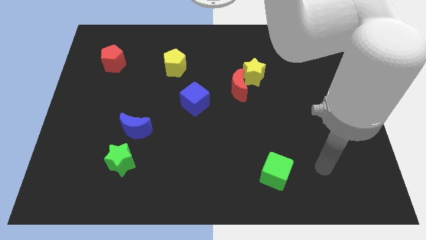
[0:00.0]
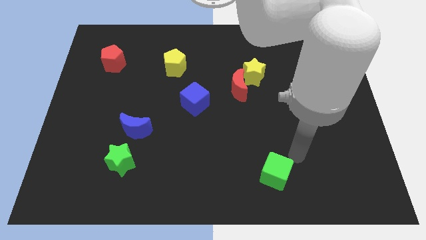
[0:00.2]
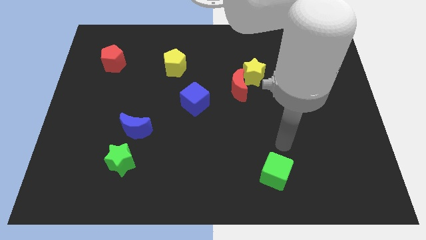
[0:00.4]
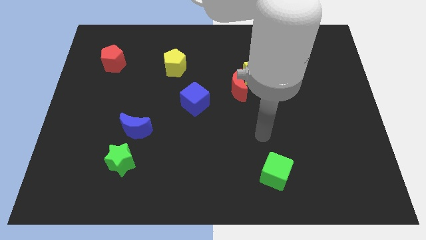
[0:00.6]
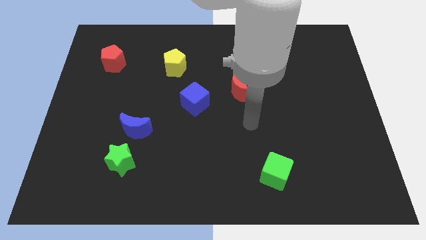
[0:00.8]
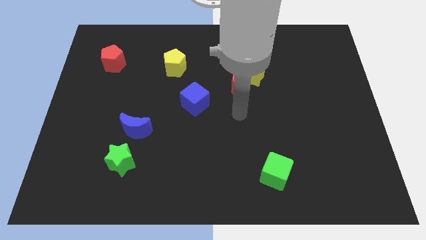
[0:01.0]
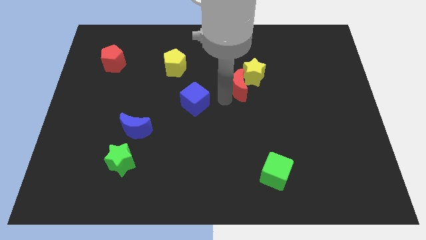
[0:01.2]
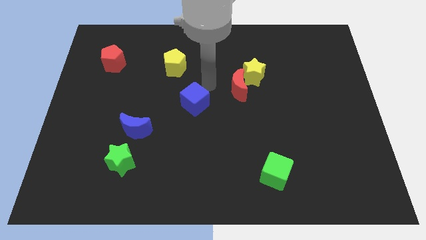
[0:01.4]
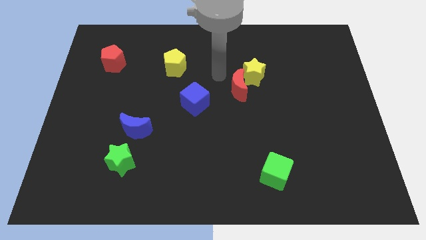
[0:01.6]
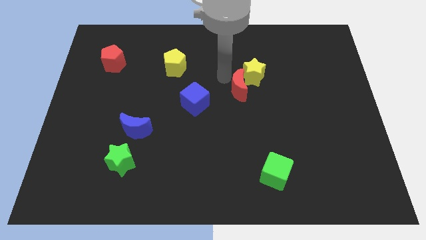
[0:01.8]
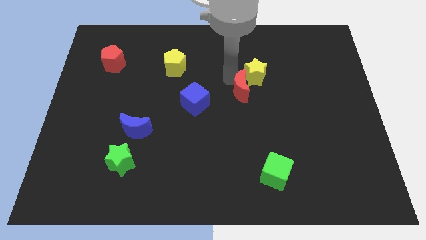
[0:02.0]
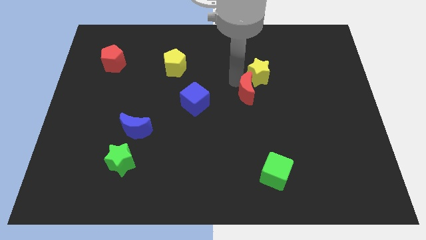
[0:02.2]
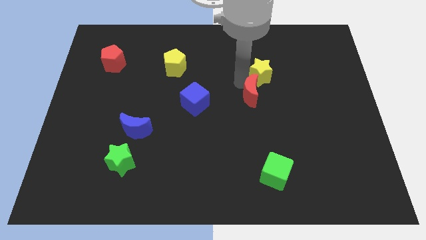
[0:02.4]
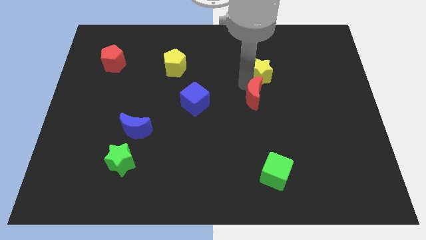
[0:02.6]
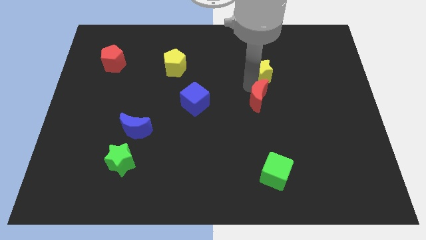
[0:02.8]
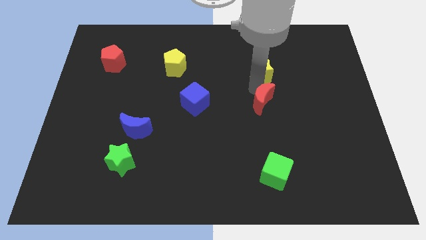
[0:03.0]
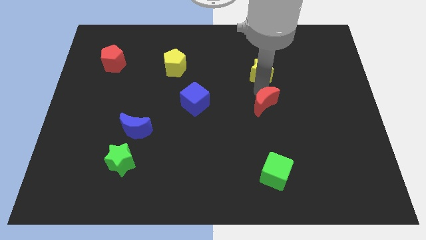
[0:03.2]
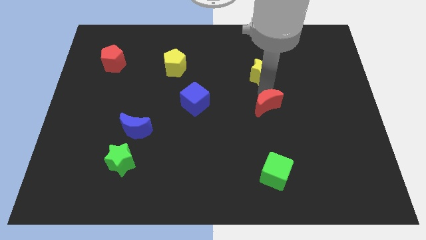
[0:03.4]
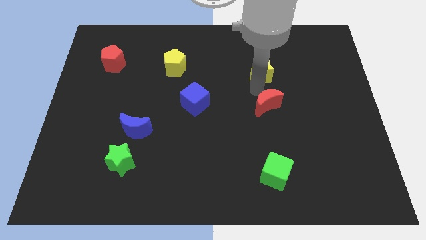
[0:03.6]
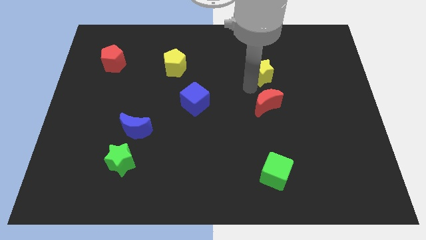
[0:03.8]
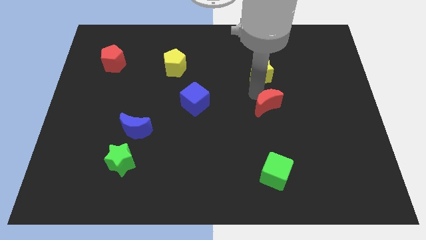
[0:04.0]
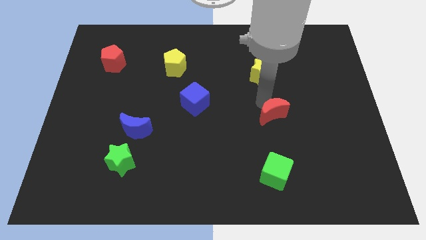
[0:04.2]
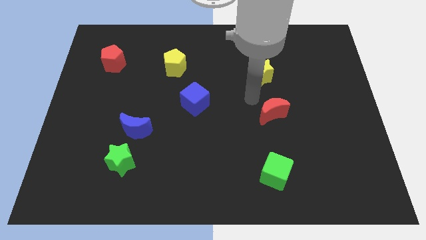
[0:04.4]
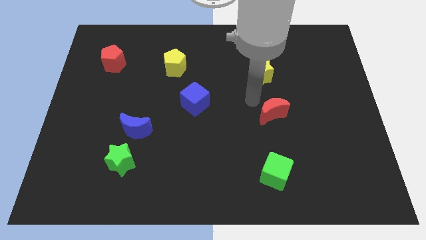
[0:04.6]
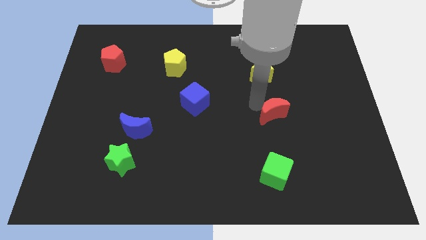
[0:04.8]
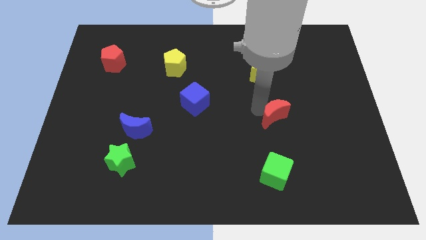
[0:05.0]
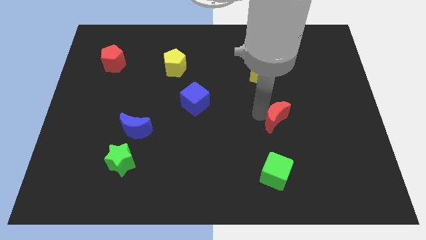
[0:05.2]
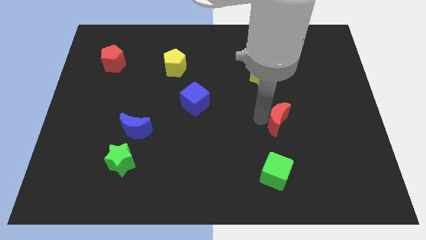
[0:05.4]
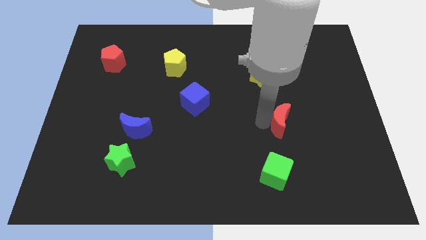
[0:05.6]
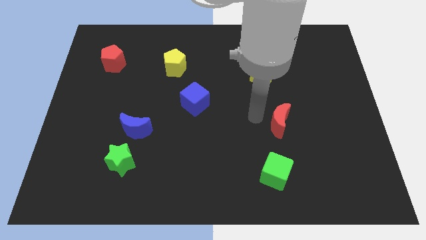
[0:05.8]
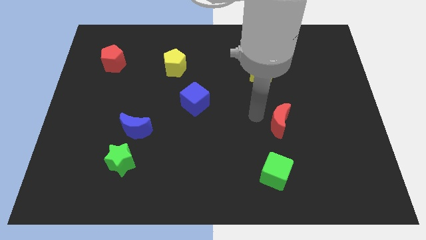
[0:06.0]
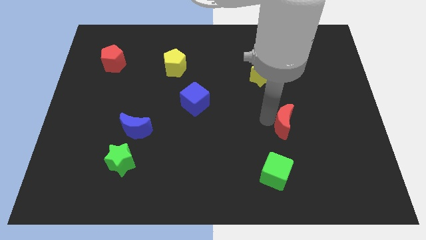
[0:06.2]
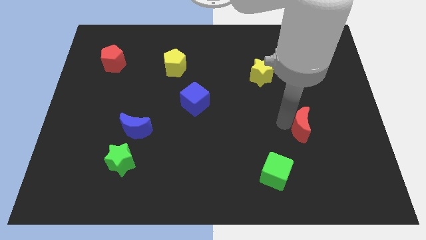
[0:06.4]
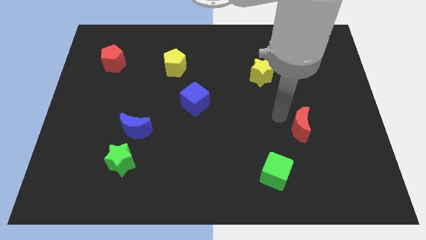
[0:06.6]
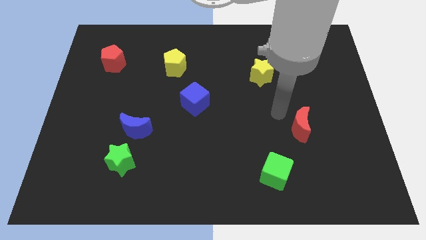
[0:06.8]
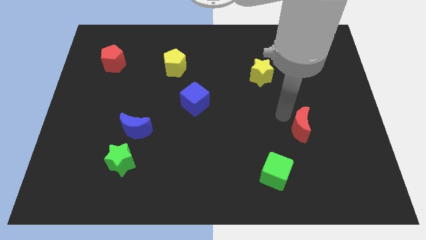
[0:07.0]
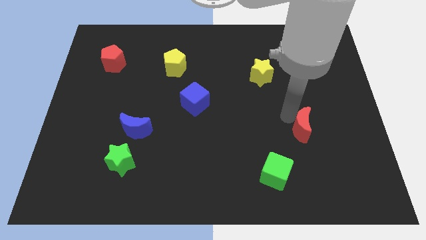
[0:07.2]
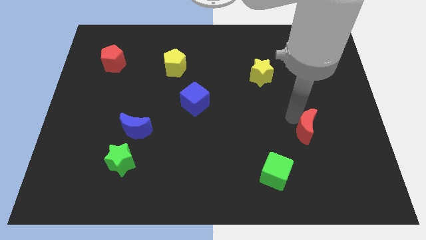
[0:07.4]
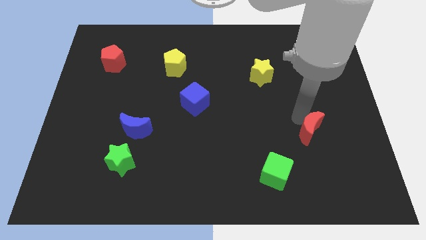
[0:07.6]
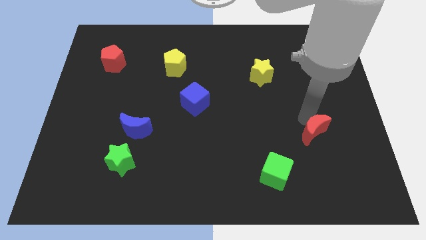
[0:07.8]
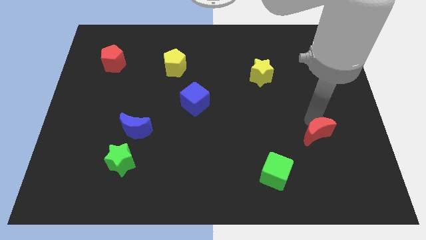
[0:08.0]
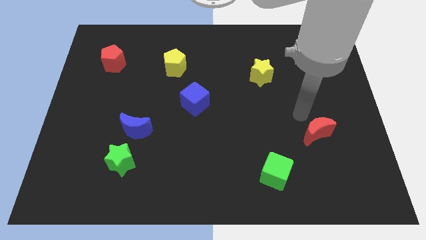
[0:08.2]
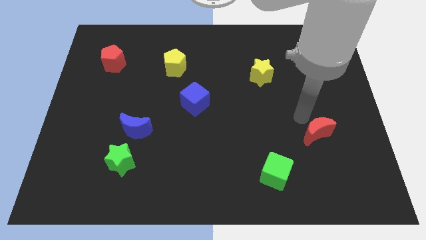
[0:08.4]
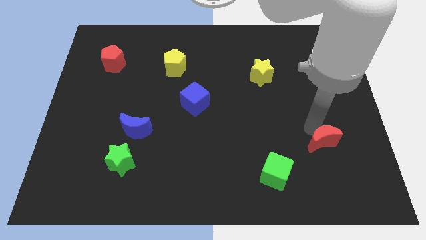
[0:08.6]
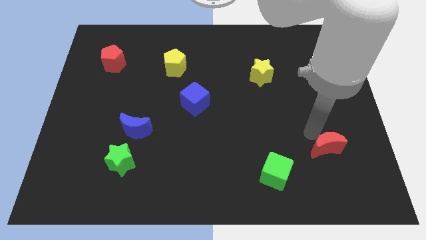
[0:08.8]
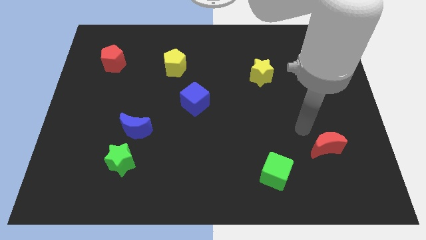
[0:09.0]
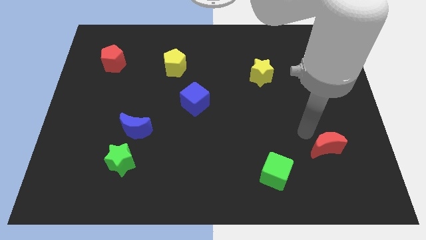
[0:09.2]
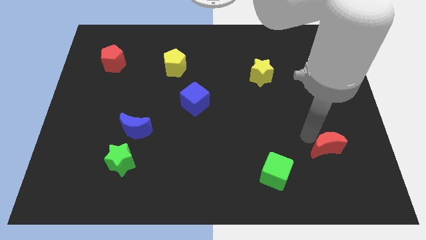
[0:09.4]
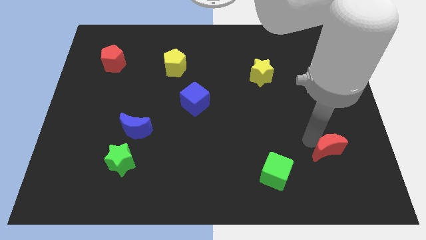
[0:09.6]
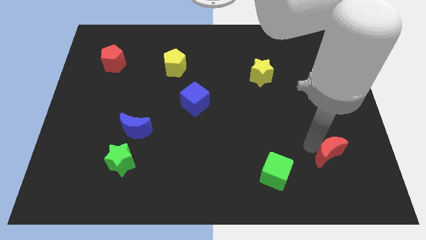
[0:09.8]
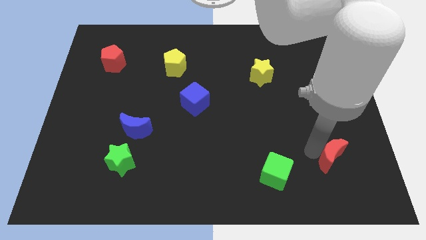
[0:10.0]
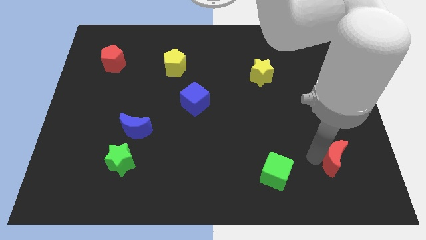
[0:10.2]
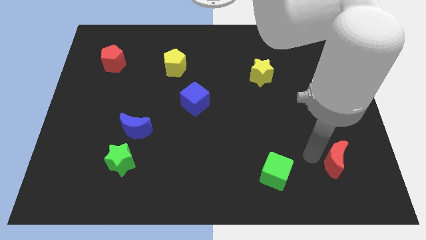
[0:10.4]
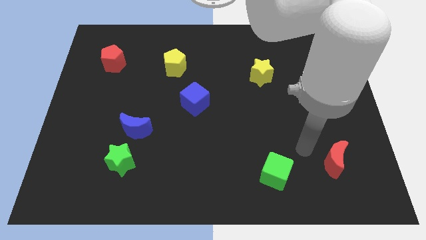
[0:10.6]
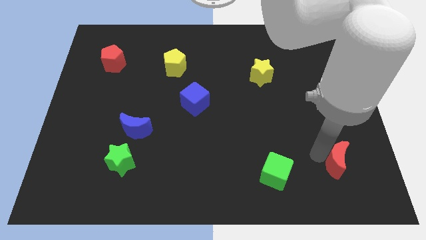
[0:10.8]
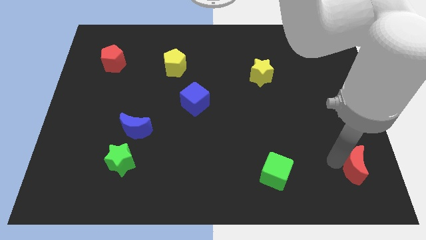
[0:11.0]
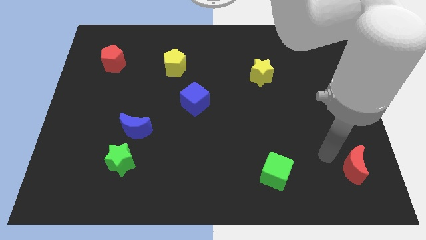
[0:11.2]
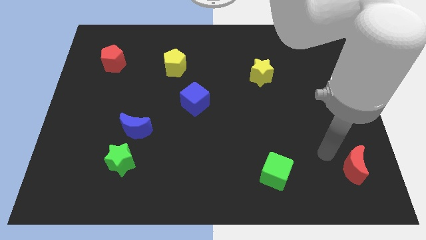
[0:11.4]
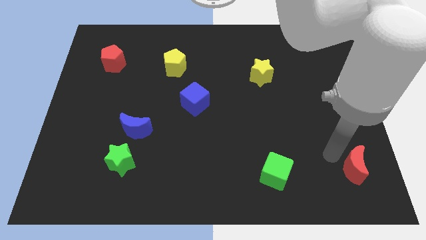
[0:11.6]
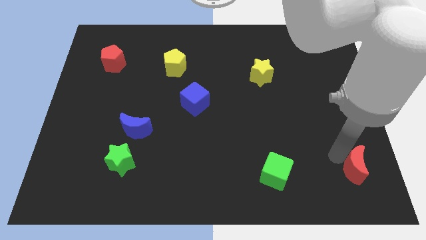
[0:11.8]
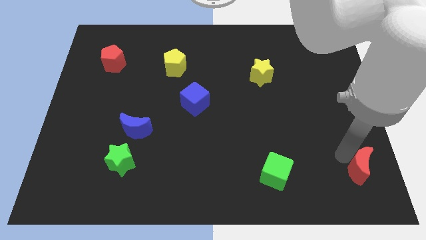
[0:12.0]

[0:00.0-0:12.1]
slide the red moon to the bottom right corner
